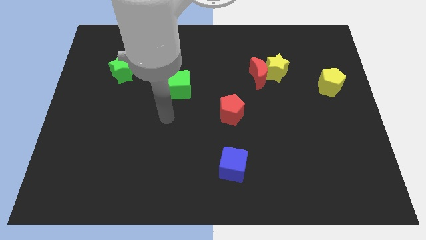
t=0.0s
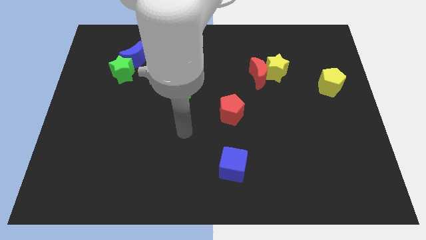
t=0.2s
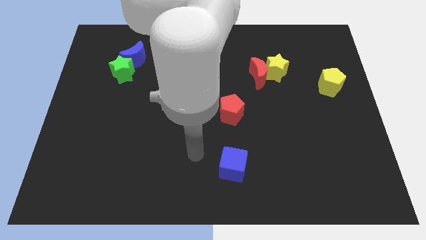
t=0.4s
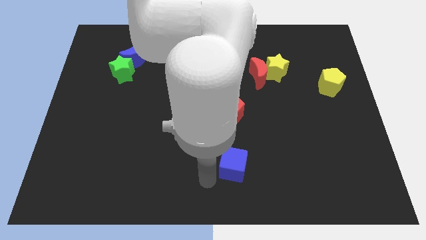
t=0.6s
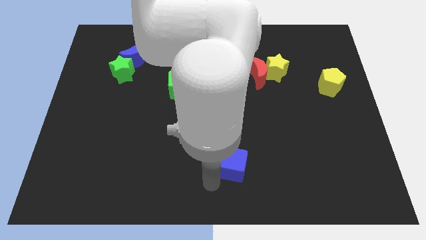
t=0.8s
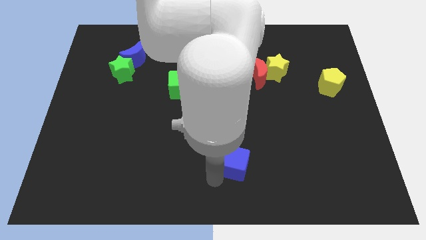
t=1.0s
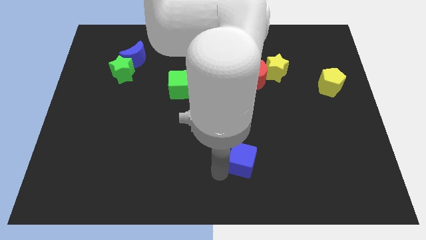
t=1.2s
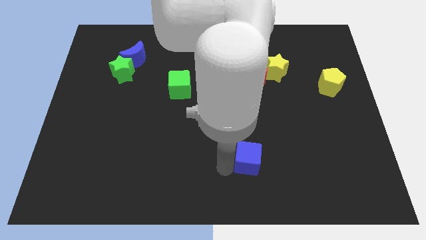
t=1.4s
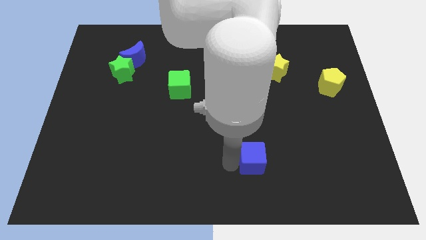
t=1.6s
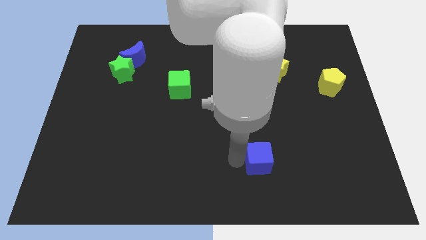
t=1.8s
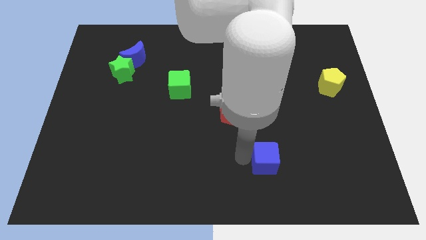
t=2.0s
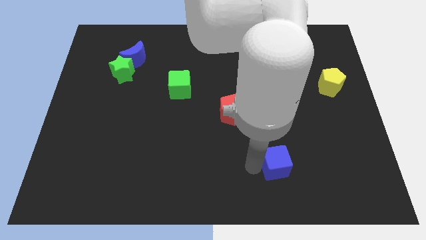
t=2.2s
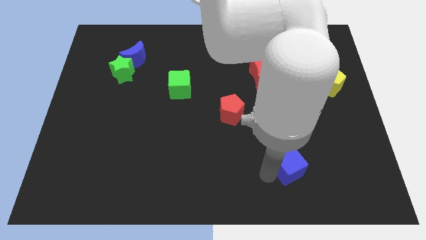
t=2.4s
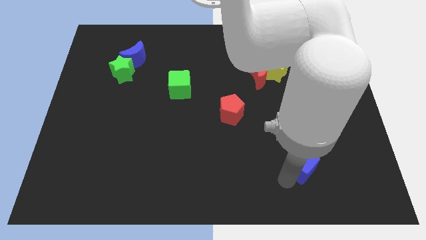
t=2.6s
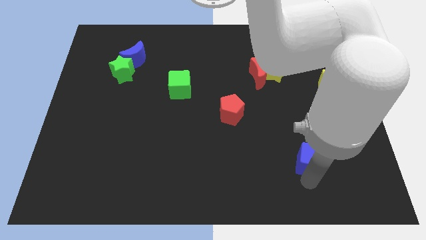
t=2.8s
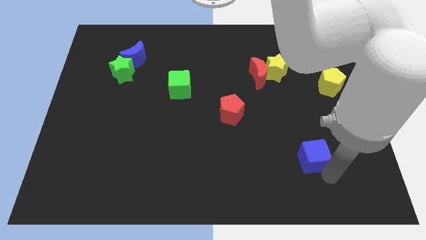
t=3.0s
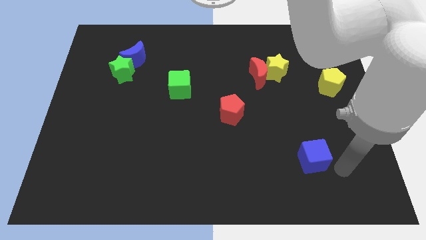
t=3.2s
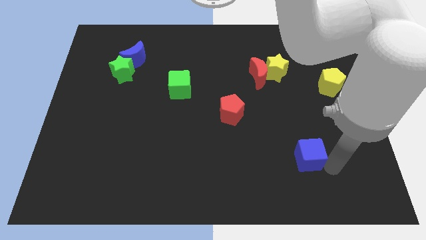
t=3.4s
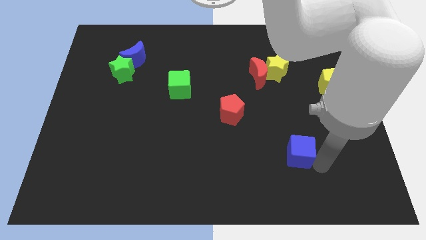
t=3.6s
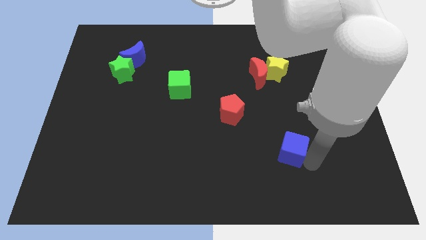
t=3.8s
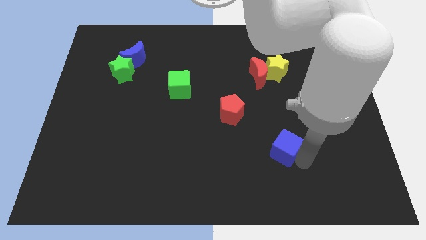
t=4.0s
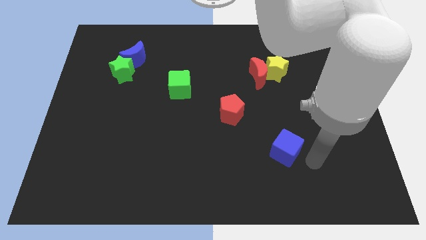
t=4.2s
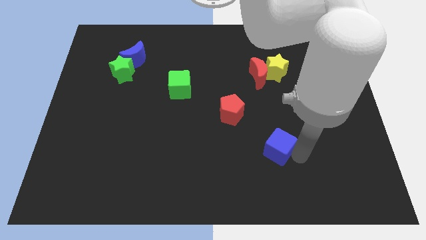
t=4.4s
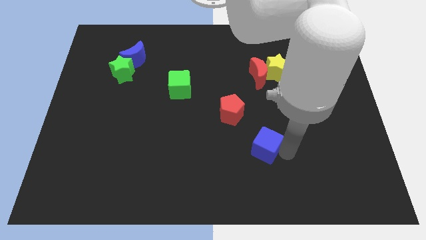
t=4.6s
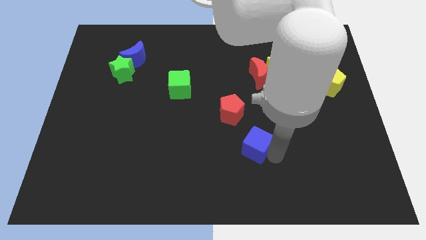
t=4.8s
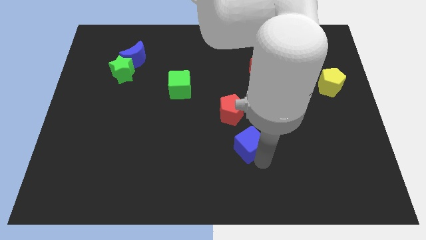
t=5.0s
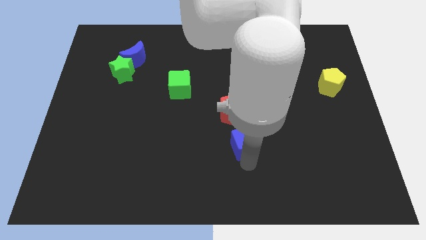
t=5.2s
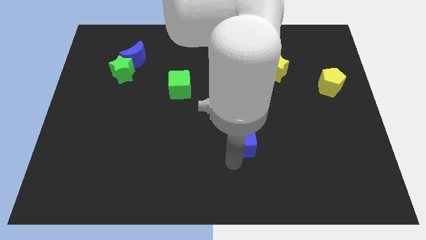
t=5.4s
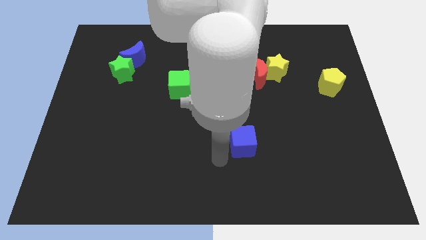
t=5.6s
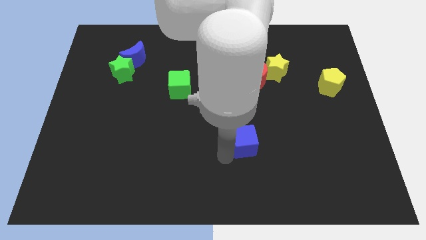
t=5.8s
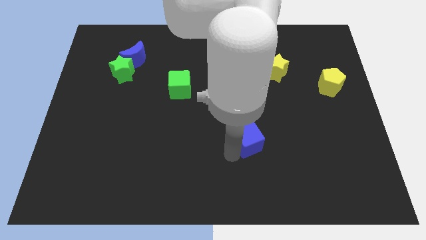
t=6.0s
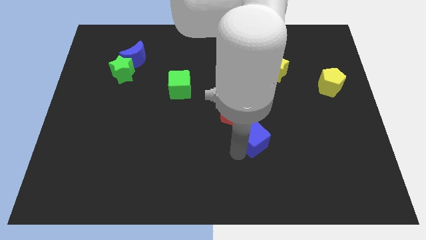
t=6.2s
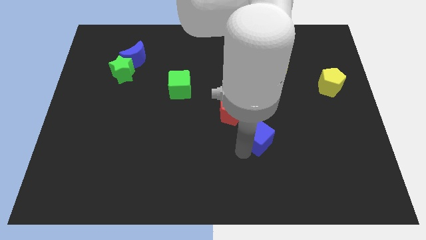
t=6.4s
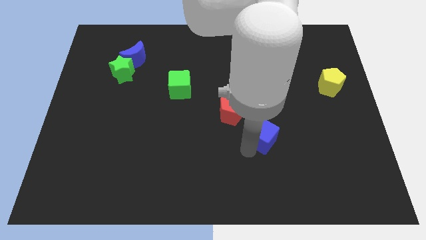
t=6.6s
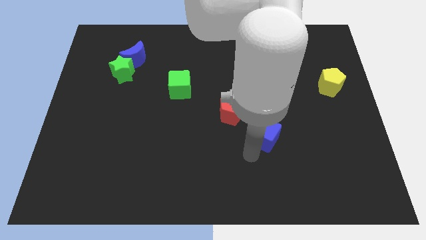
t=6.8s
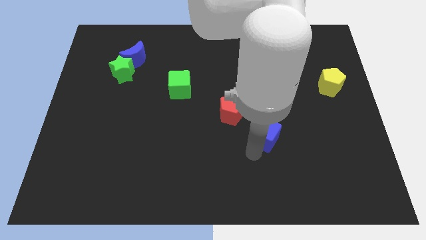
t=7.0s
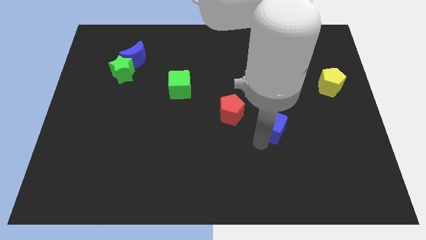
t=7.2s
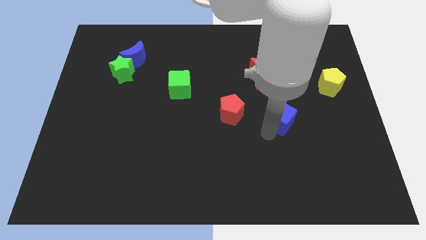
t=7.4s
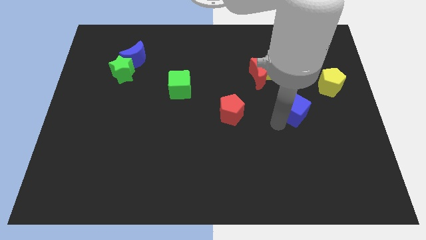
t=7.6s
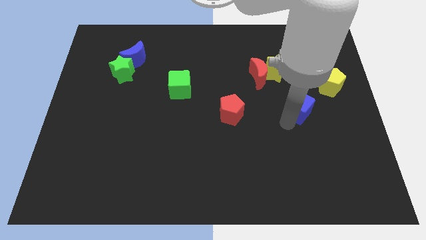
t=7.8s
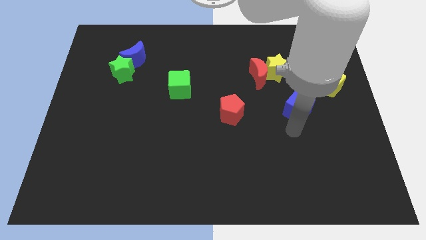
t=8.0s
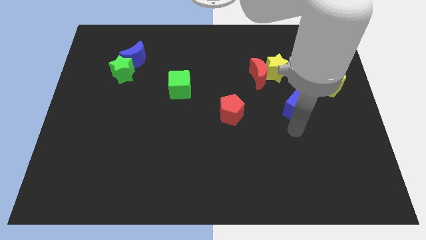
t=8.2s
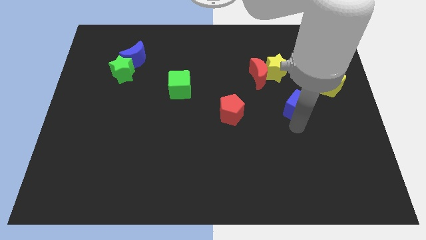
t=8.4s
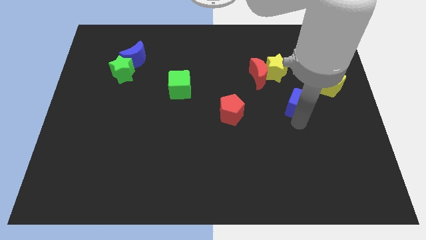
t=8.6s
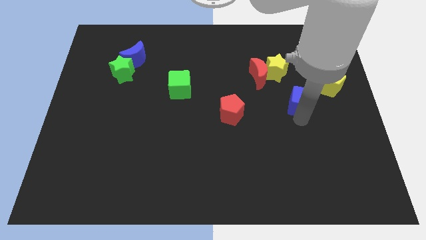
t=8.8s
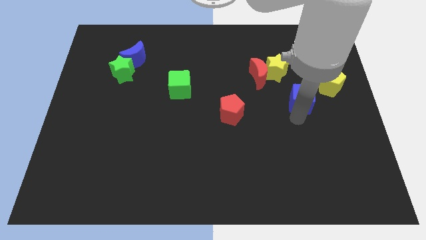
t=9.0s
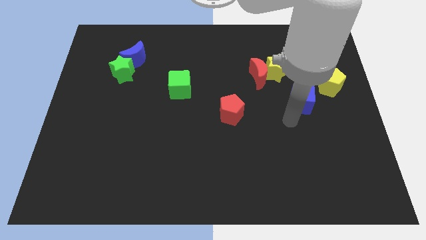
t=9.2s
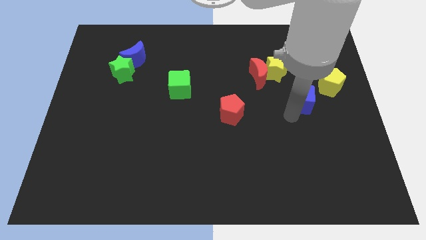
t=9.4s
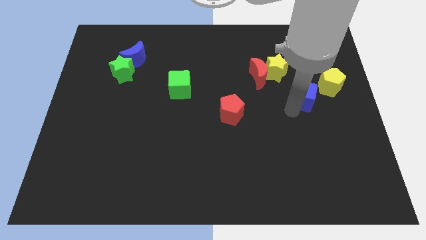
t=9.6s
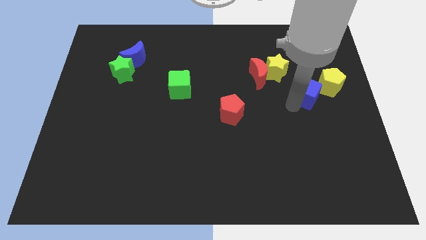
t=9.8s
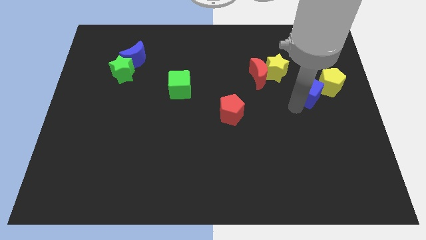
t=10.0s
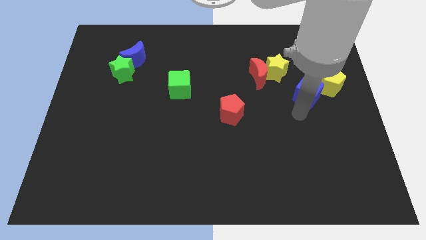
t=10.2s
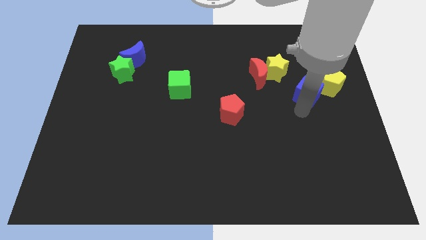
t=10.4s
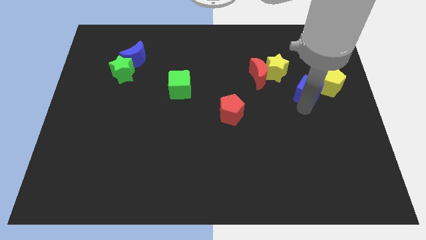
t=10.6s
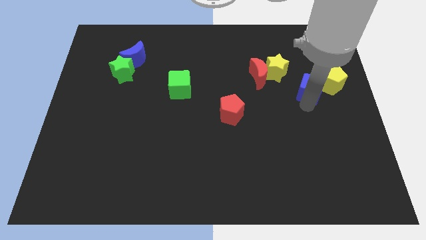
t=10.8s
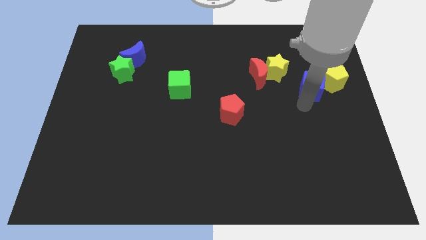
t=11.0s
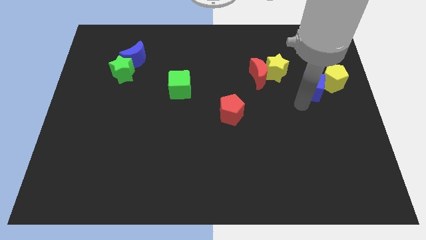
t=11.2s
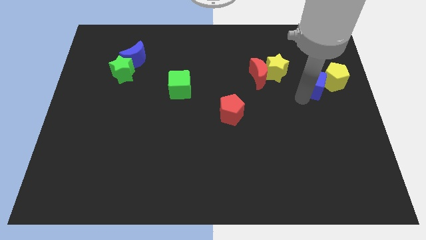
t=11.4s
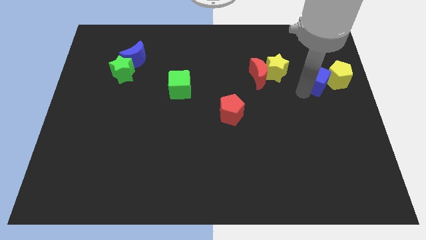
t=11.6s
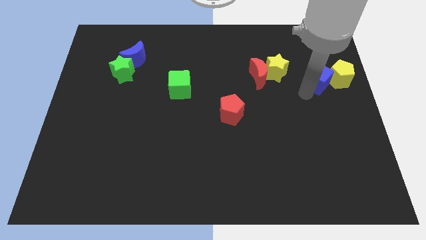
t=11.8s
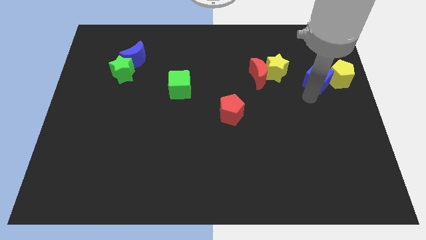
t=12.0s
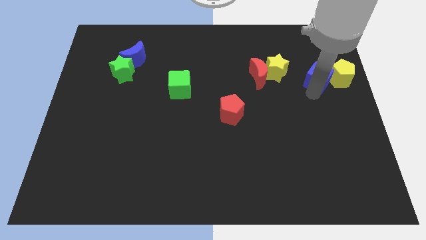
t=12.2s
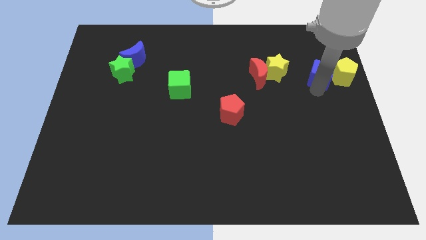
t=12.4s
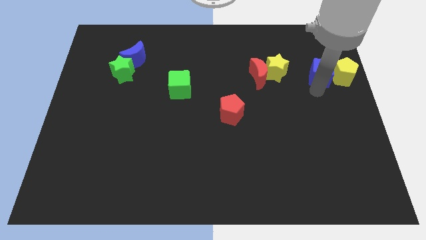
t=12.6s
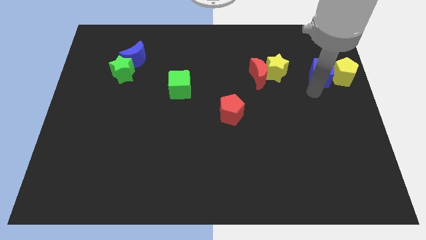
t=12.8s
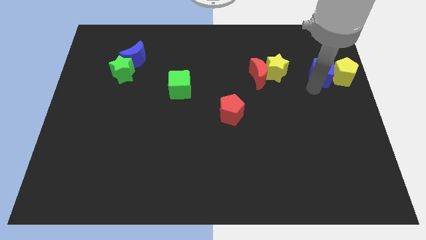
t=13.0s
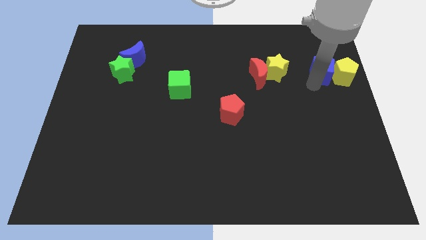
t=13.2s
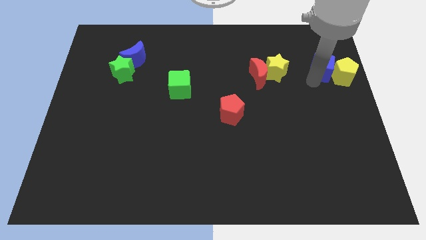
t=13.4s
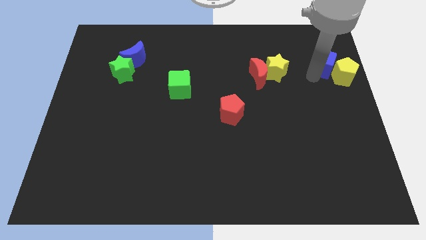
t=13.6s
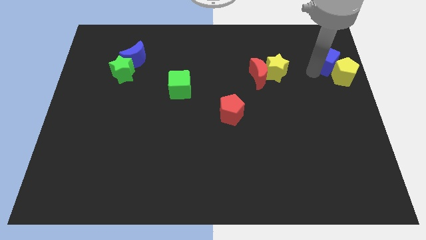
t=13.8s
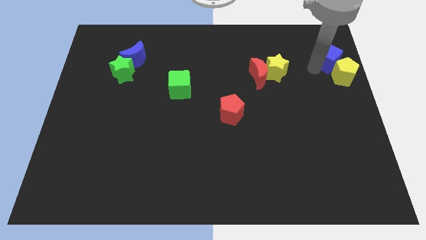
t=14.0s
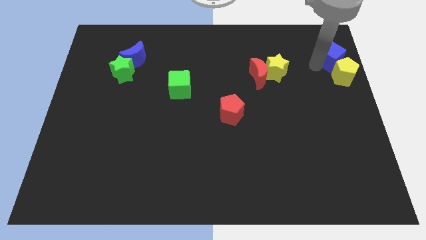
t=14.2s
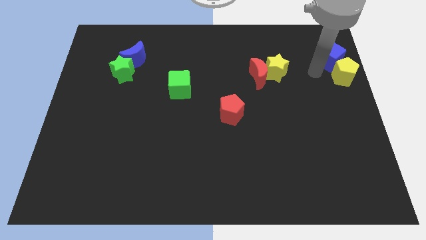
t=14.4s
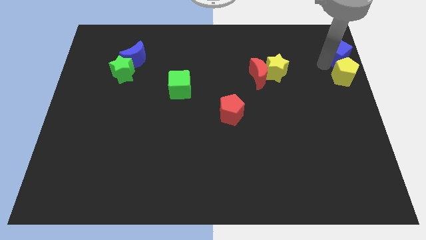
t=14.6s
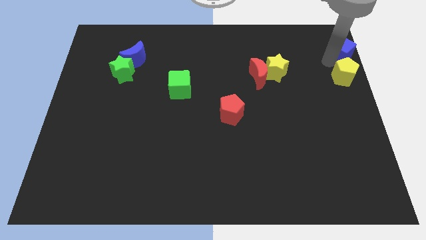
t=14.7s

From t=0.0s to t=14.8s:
put the blue cube to the top right of the board
